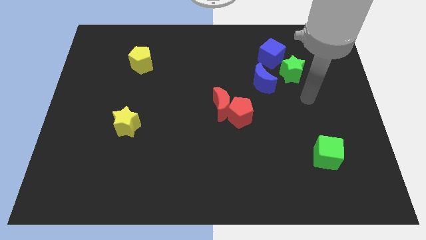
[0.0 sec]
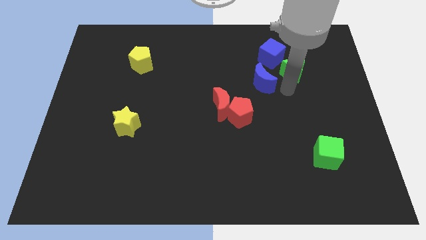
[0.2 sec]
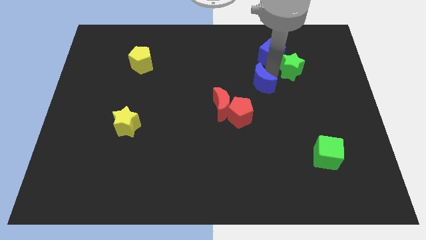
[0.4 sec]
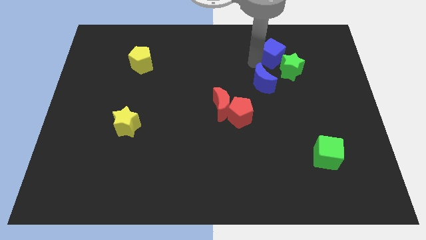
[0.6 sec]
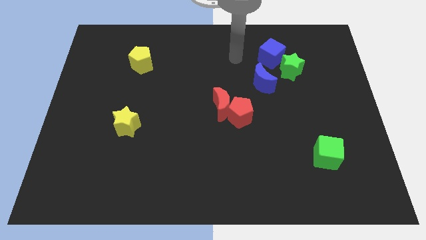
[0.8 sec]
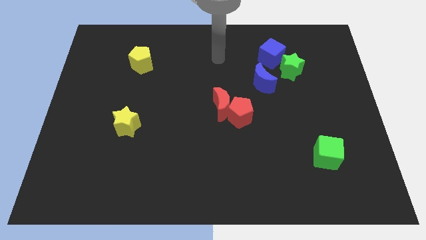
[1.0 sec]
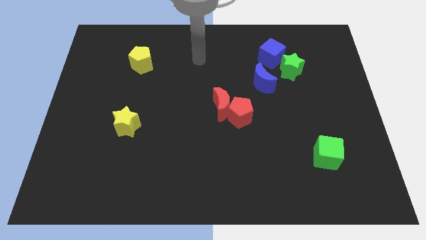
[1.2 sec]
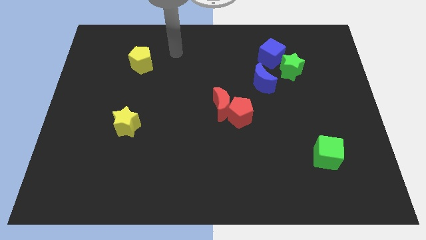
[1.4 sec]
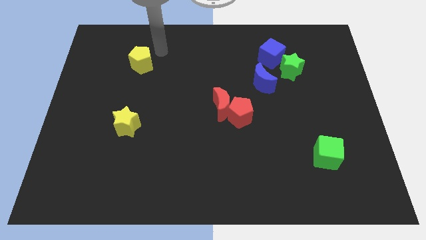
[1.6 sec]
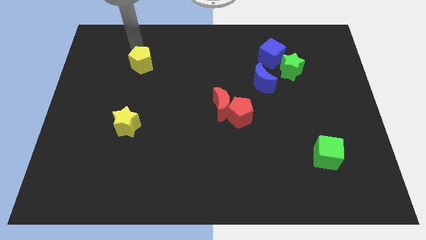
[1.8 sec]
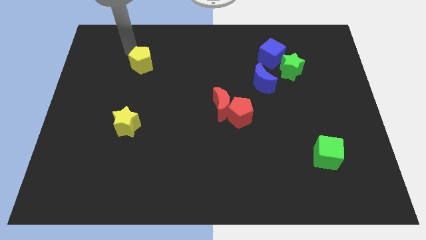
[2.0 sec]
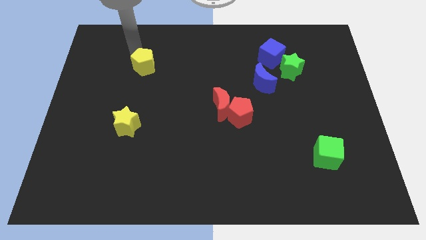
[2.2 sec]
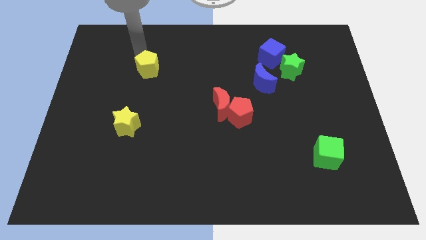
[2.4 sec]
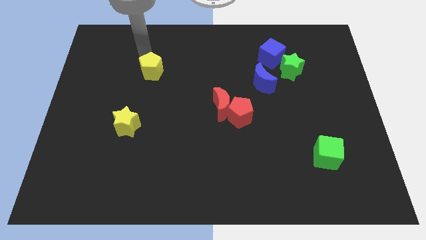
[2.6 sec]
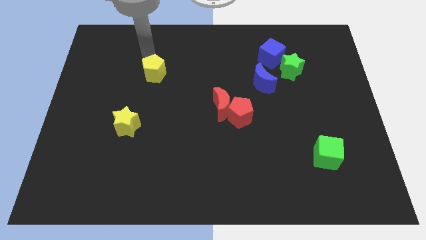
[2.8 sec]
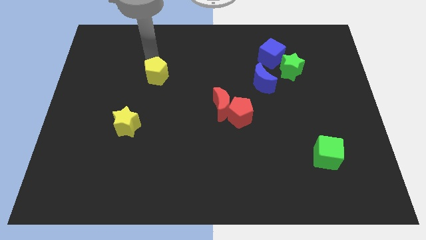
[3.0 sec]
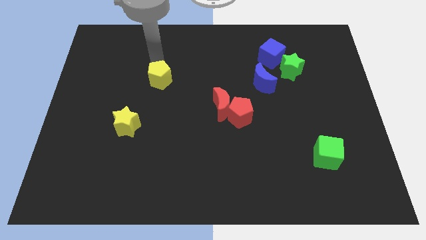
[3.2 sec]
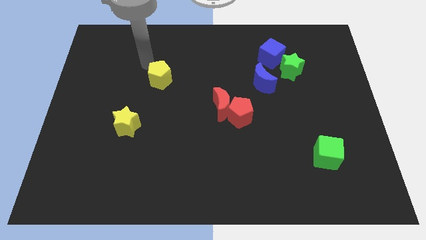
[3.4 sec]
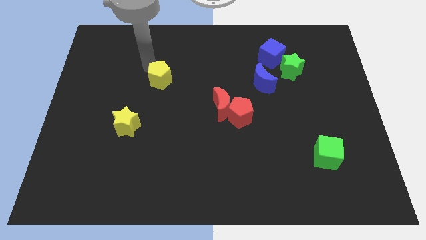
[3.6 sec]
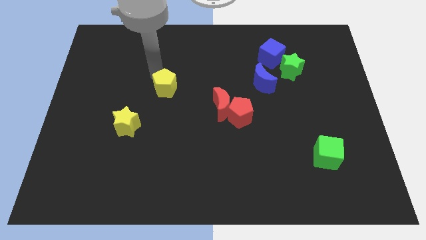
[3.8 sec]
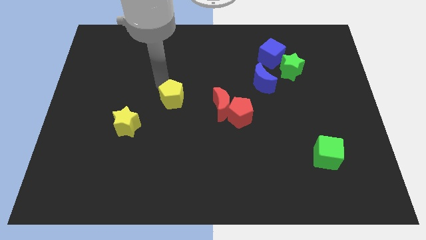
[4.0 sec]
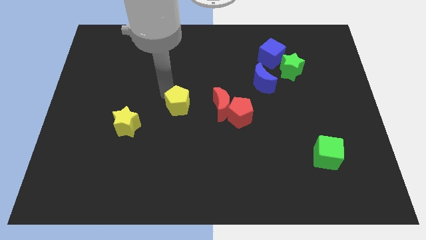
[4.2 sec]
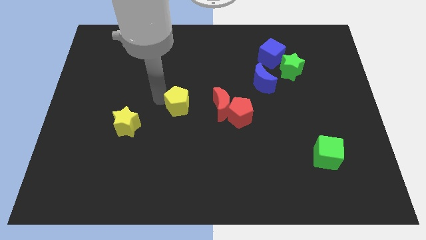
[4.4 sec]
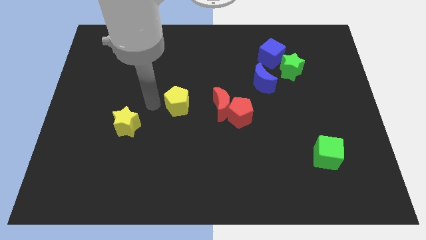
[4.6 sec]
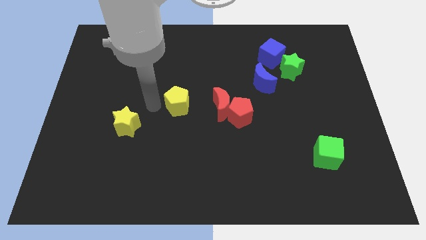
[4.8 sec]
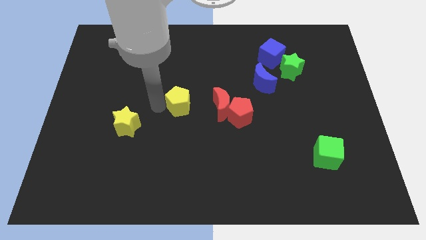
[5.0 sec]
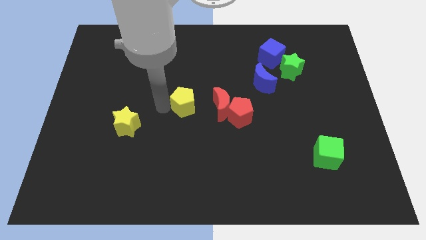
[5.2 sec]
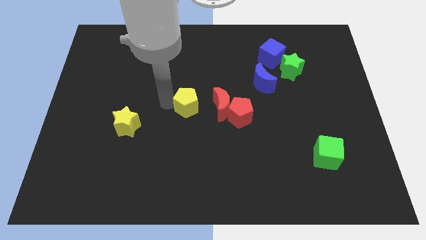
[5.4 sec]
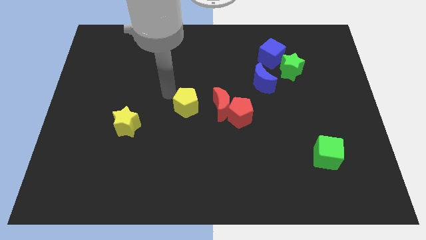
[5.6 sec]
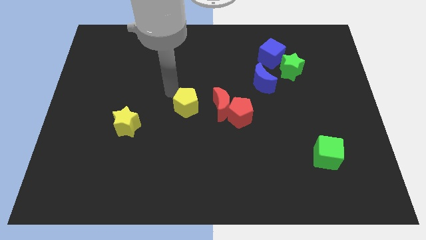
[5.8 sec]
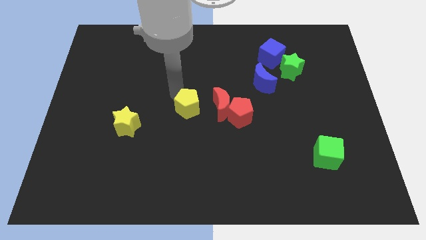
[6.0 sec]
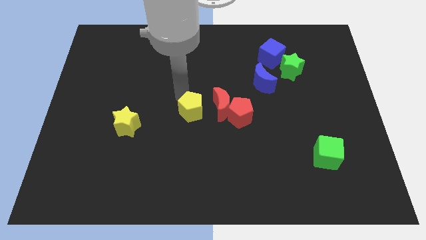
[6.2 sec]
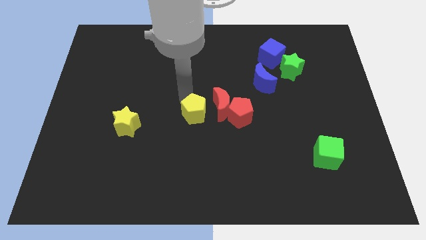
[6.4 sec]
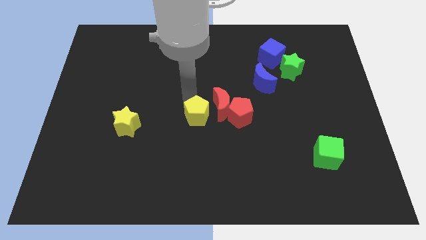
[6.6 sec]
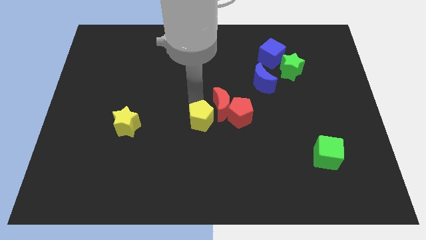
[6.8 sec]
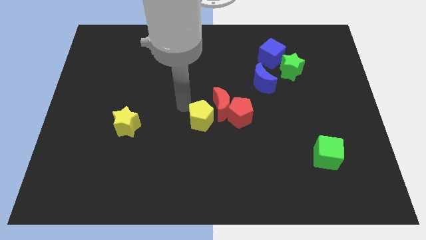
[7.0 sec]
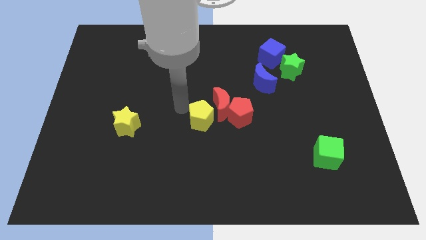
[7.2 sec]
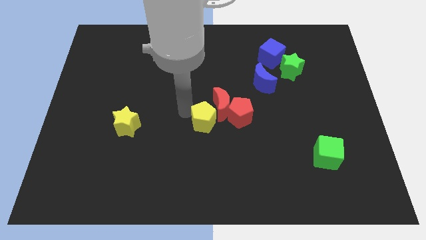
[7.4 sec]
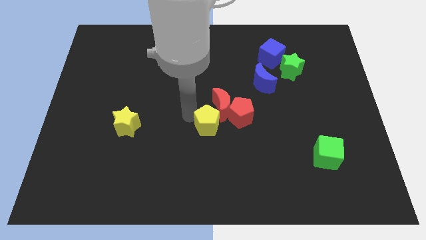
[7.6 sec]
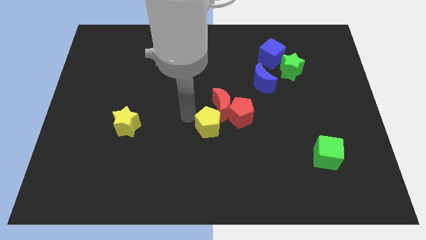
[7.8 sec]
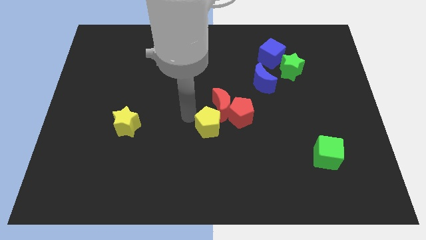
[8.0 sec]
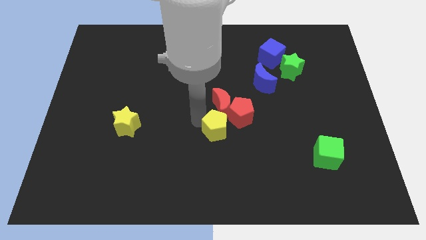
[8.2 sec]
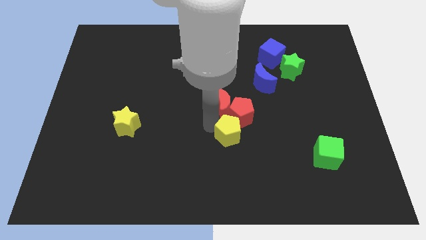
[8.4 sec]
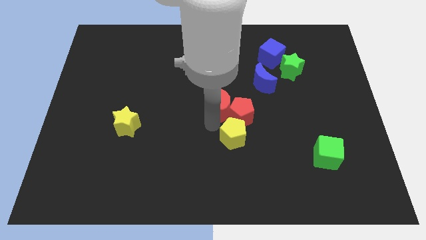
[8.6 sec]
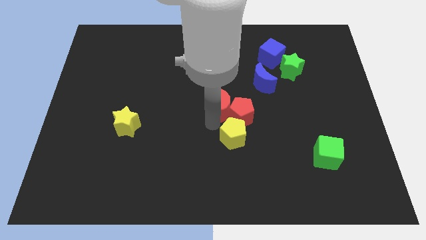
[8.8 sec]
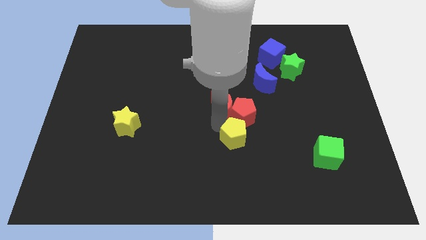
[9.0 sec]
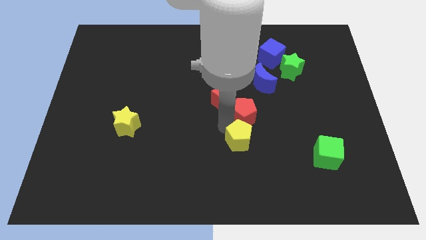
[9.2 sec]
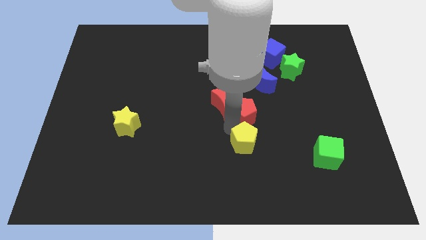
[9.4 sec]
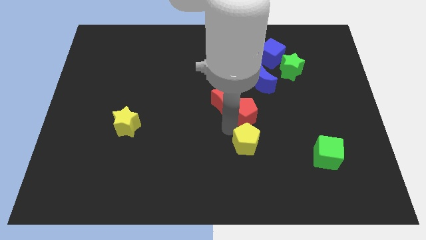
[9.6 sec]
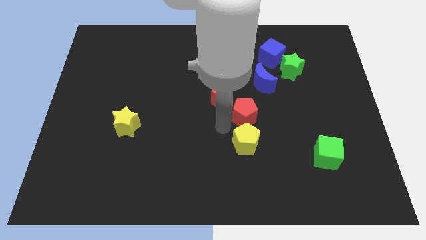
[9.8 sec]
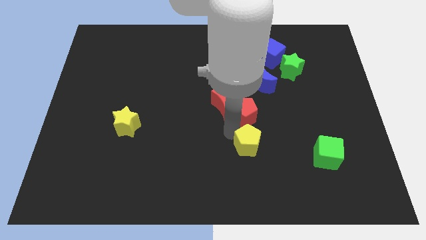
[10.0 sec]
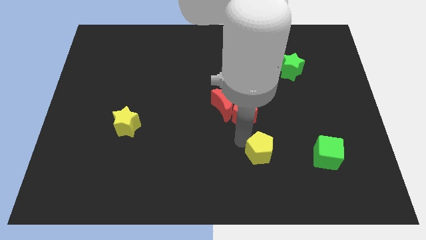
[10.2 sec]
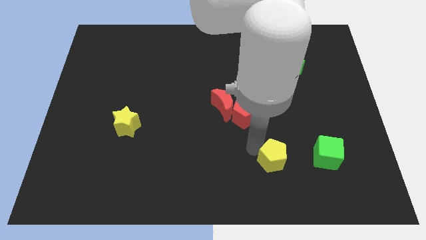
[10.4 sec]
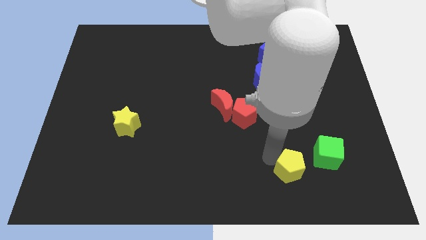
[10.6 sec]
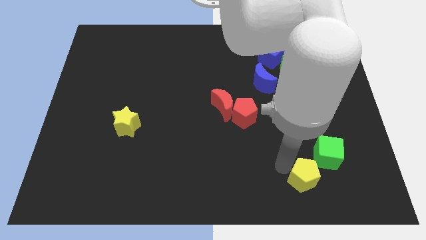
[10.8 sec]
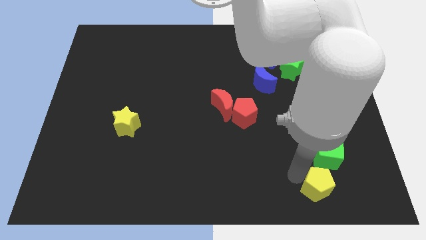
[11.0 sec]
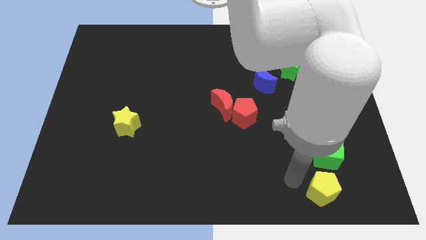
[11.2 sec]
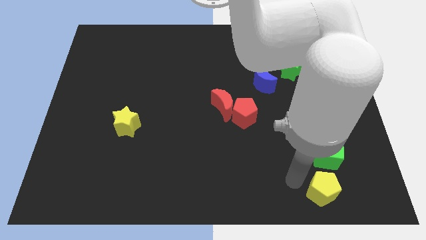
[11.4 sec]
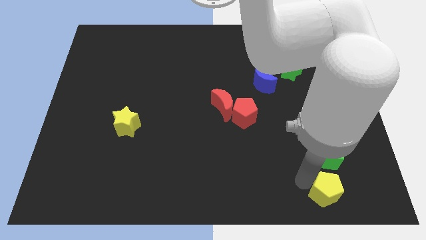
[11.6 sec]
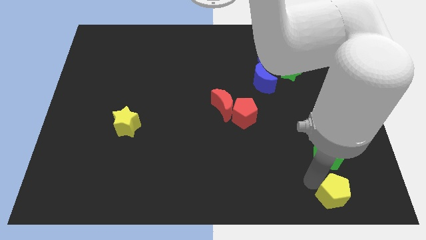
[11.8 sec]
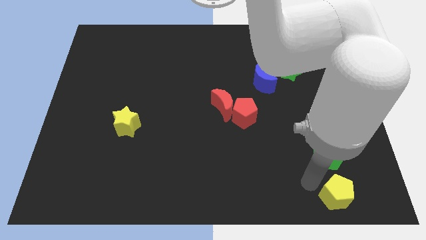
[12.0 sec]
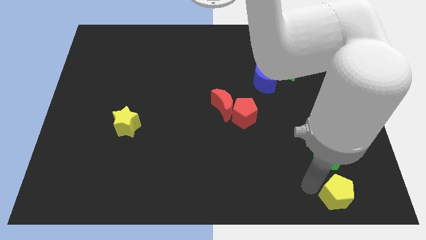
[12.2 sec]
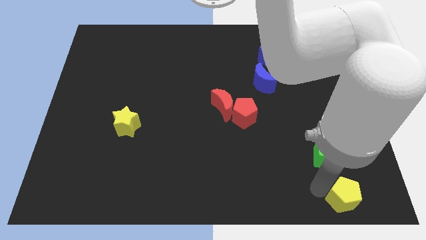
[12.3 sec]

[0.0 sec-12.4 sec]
put the yellow pentagon to the bottom right corner

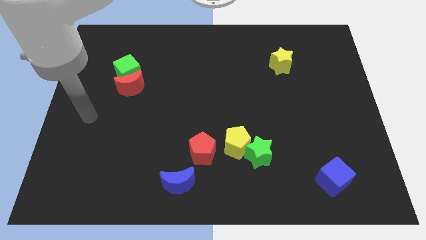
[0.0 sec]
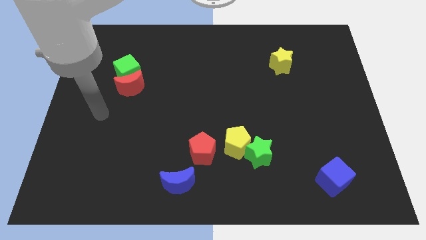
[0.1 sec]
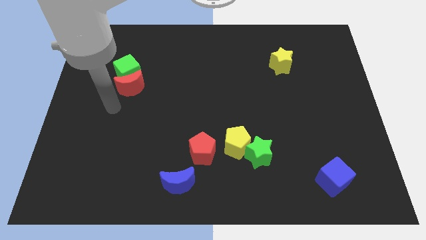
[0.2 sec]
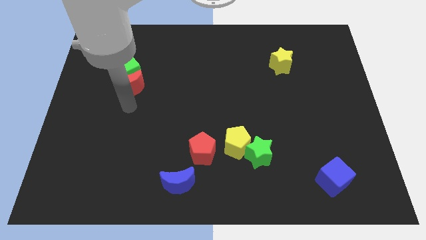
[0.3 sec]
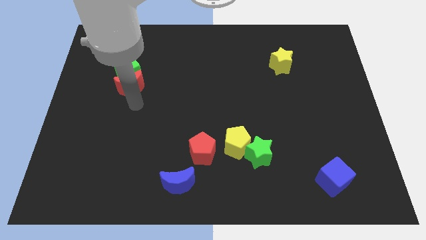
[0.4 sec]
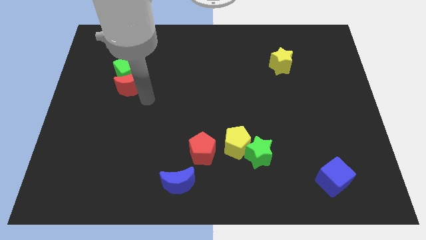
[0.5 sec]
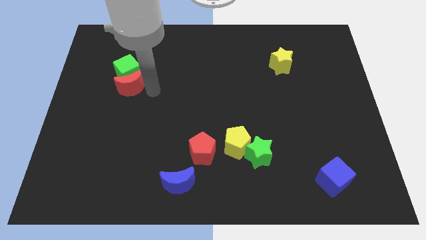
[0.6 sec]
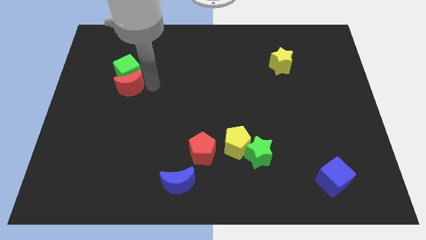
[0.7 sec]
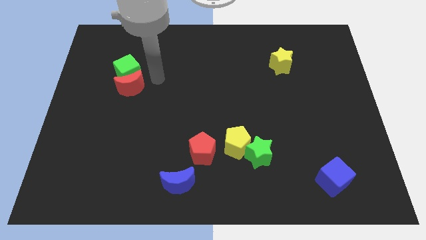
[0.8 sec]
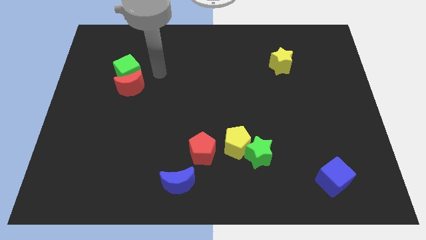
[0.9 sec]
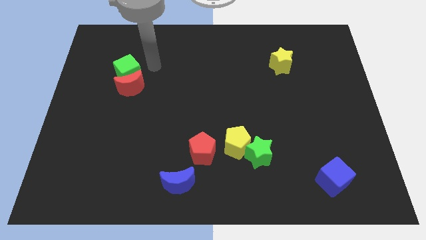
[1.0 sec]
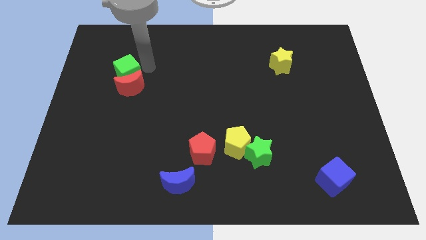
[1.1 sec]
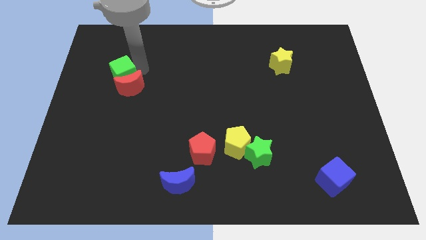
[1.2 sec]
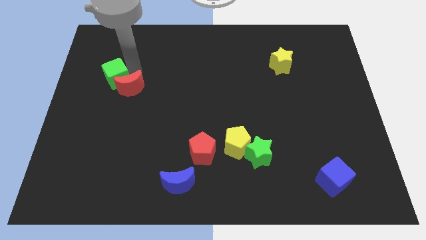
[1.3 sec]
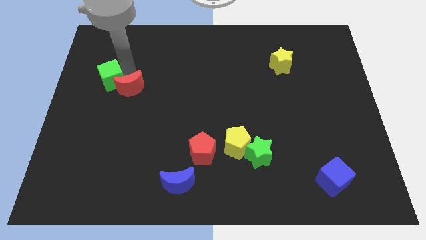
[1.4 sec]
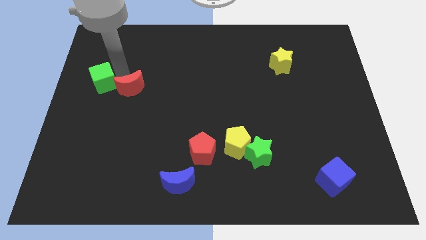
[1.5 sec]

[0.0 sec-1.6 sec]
put the green cube to the center left
